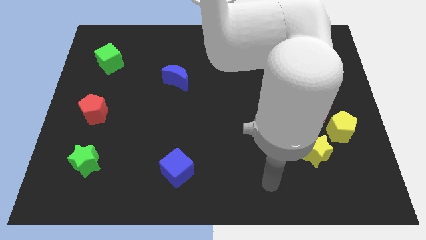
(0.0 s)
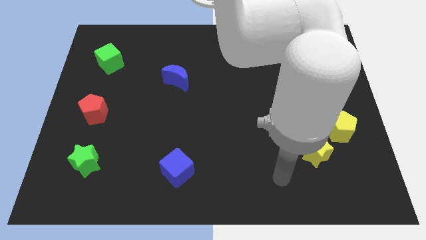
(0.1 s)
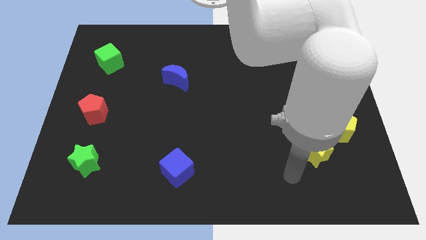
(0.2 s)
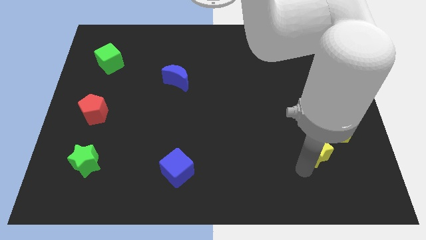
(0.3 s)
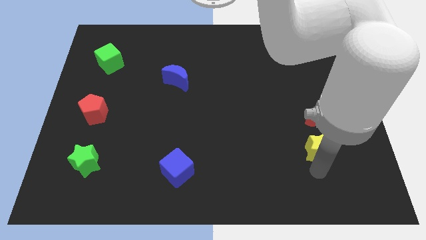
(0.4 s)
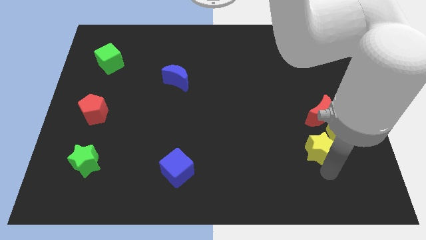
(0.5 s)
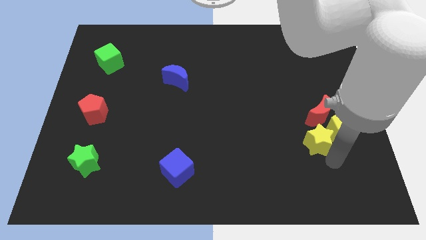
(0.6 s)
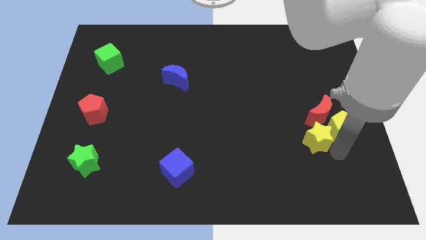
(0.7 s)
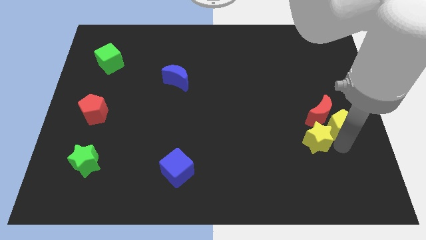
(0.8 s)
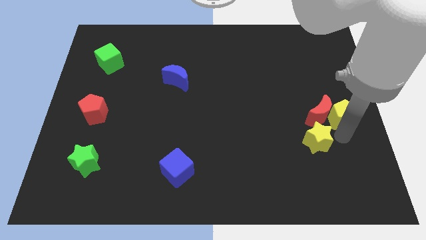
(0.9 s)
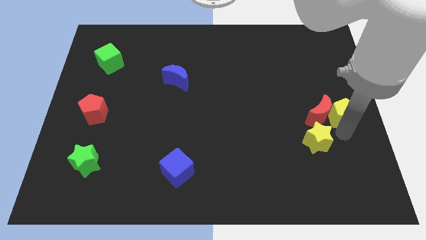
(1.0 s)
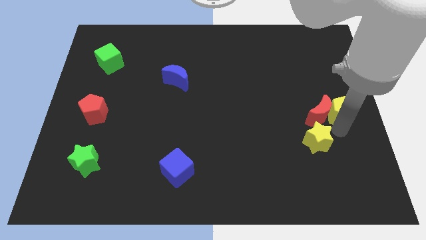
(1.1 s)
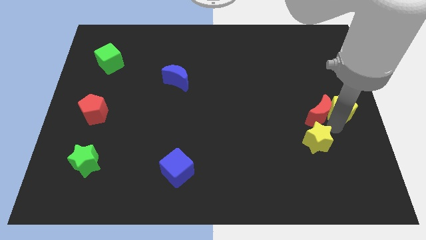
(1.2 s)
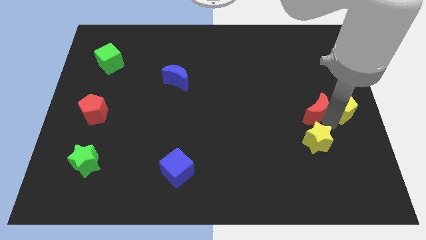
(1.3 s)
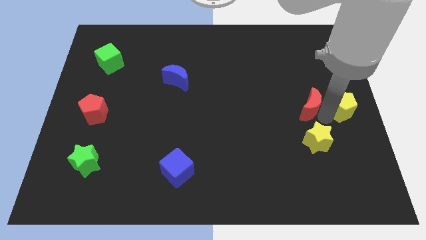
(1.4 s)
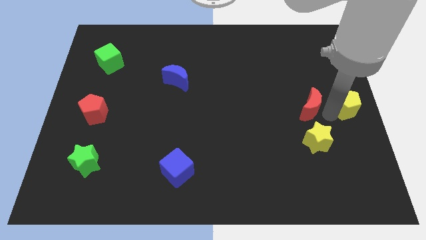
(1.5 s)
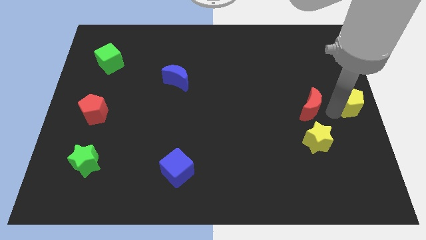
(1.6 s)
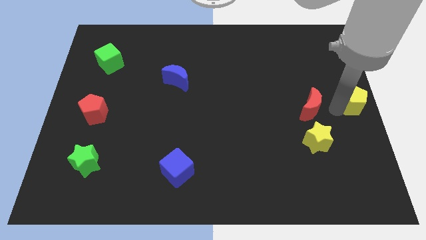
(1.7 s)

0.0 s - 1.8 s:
move the red moon away from the yellow pentagon

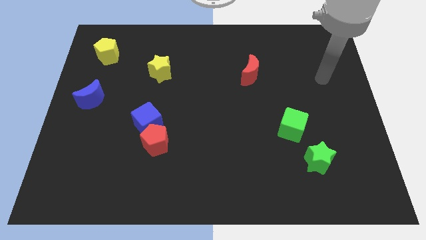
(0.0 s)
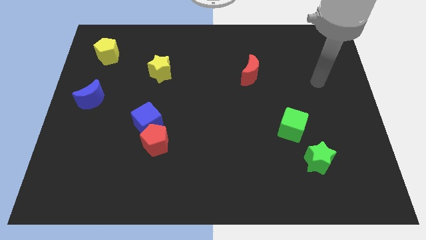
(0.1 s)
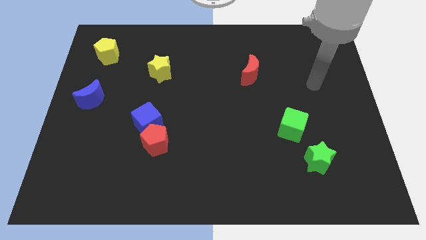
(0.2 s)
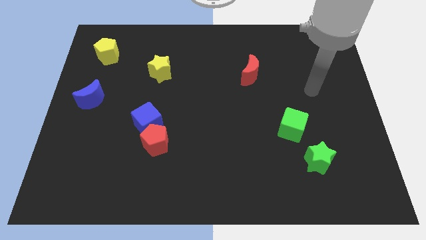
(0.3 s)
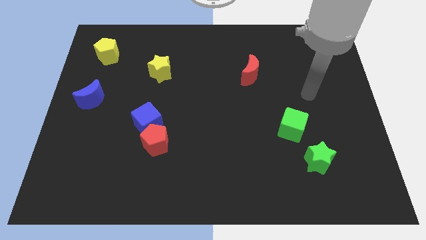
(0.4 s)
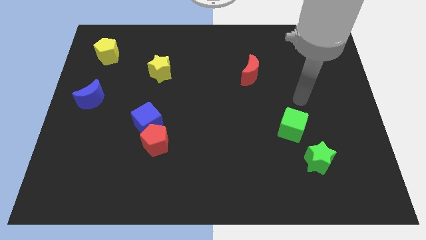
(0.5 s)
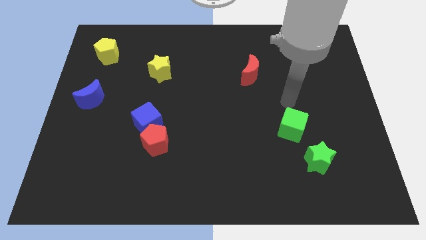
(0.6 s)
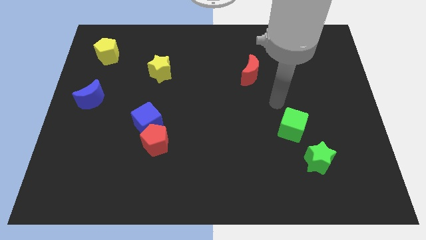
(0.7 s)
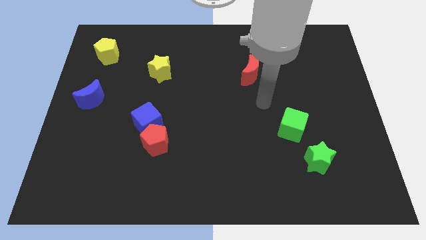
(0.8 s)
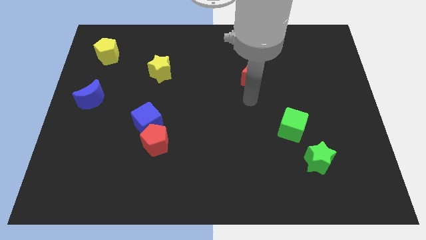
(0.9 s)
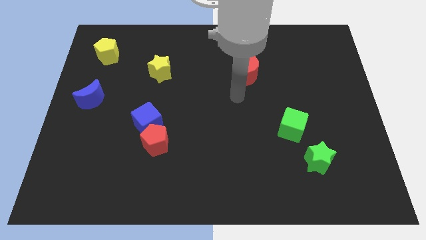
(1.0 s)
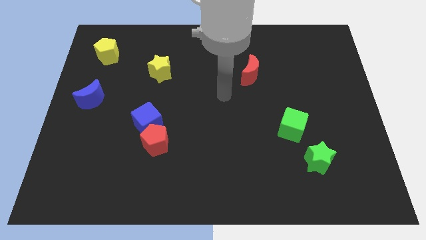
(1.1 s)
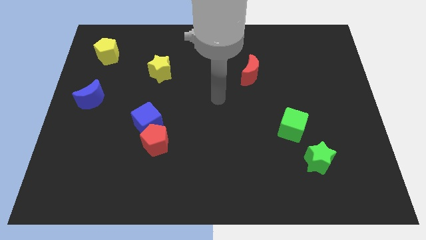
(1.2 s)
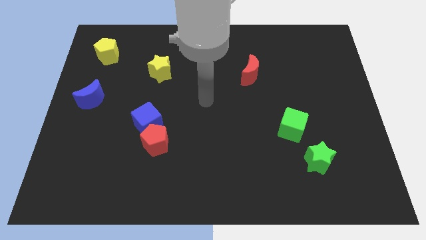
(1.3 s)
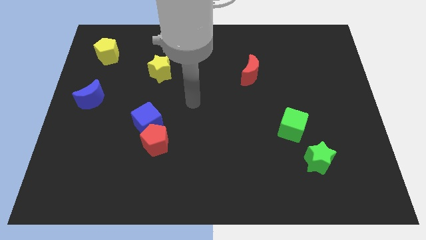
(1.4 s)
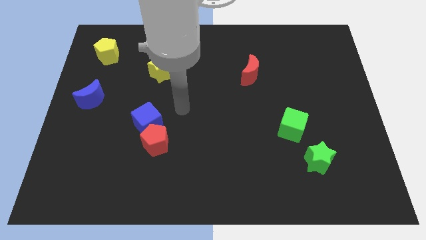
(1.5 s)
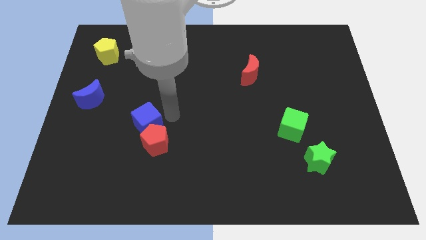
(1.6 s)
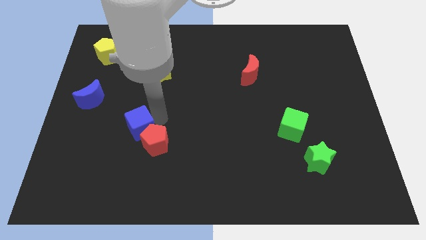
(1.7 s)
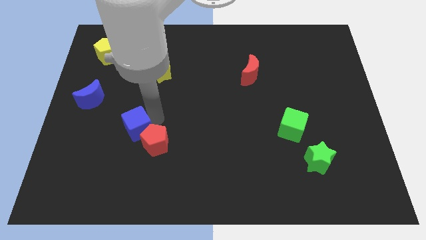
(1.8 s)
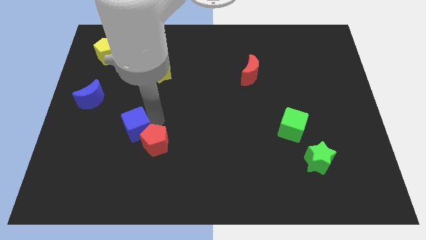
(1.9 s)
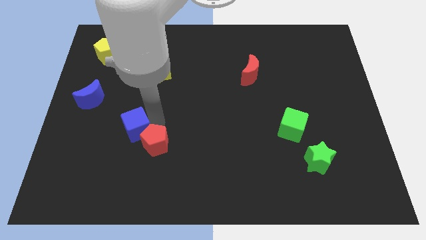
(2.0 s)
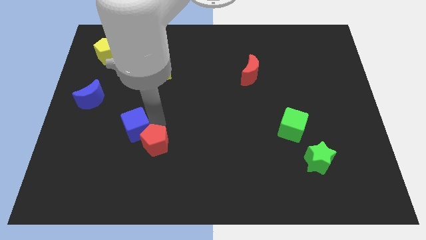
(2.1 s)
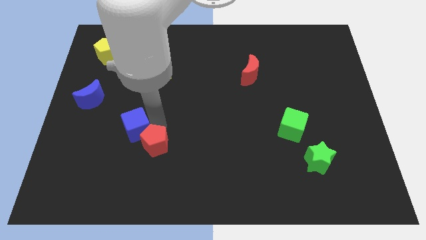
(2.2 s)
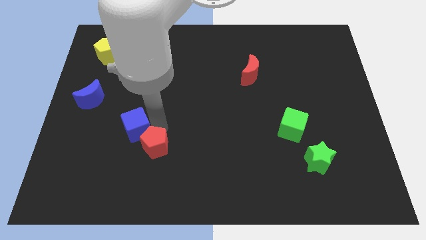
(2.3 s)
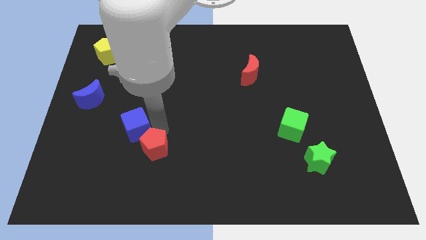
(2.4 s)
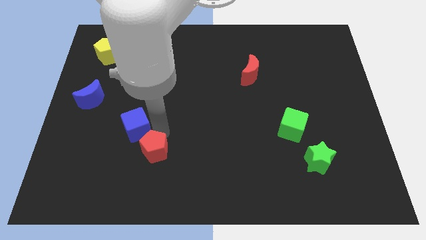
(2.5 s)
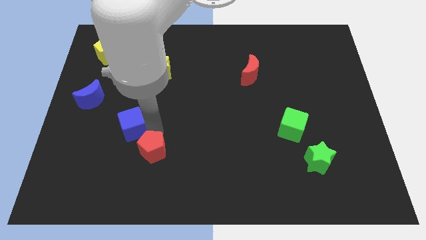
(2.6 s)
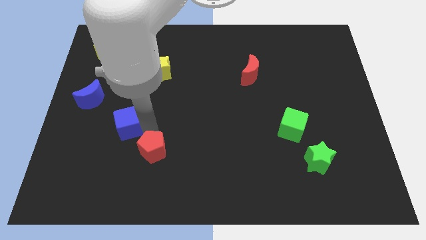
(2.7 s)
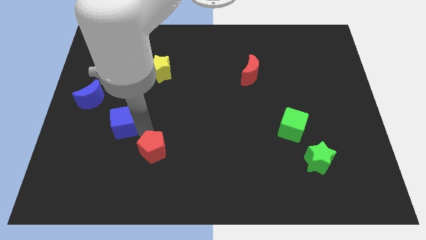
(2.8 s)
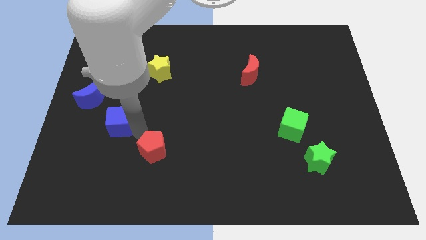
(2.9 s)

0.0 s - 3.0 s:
separate the red pentagon from the blue cube

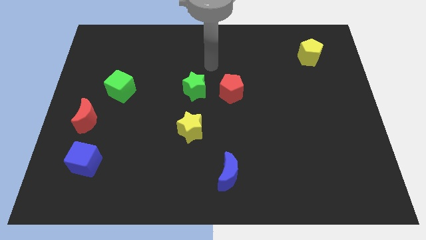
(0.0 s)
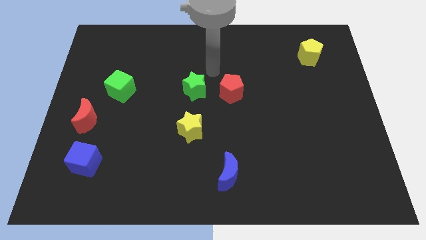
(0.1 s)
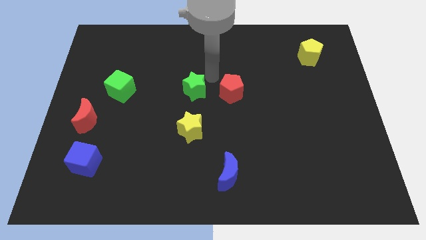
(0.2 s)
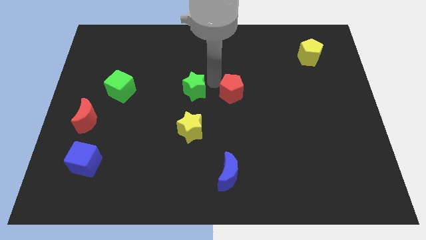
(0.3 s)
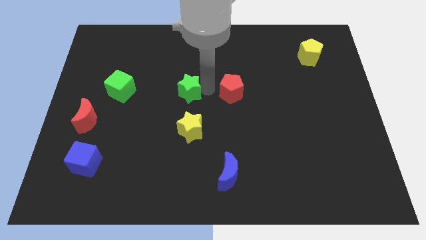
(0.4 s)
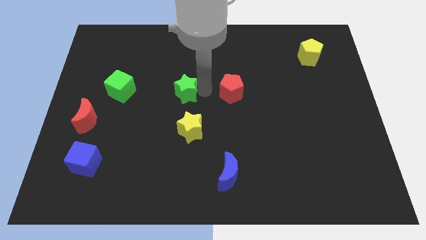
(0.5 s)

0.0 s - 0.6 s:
pull the red pentagon apart from the green star

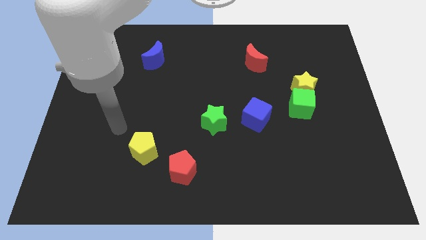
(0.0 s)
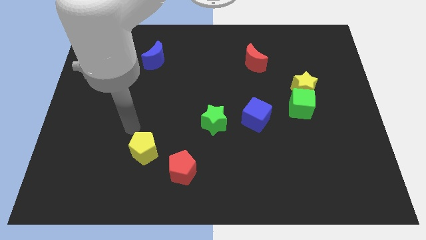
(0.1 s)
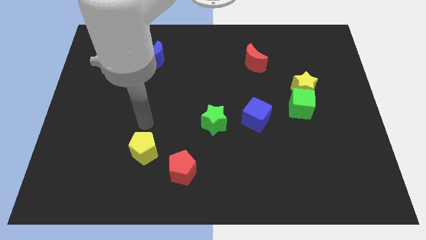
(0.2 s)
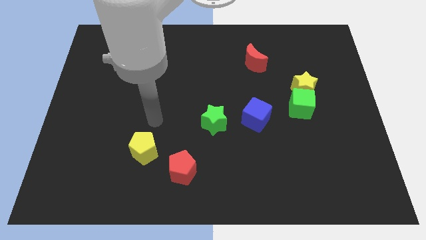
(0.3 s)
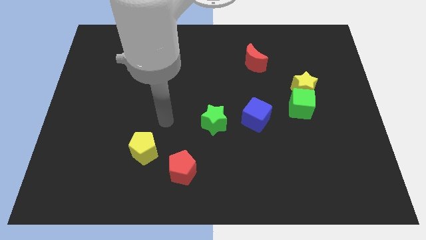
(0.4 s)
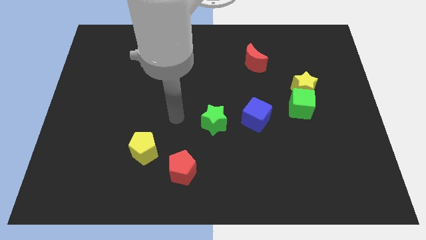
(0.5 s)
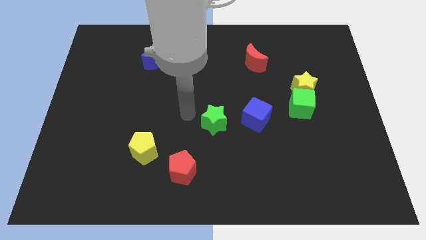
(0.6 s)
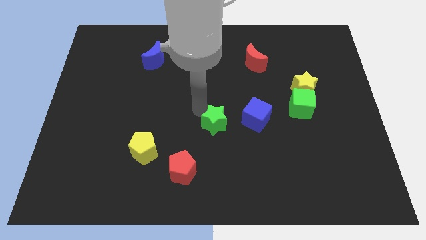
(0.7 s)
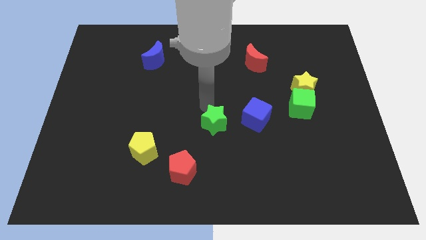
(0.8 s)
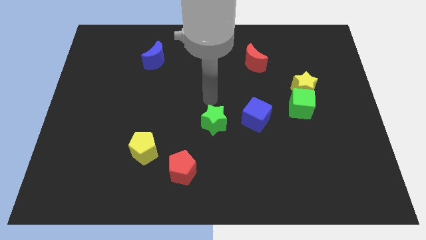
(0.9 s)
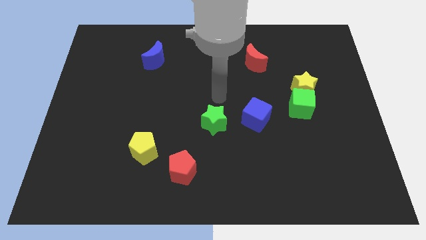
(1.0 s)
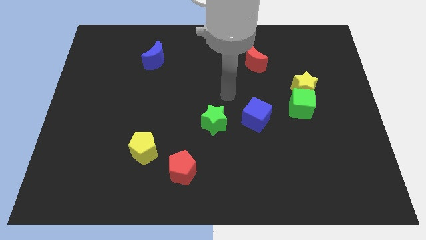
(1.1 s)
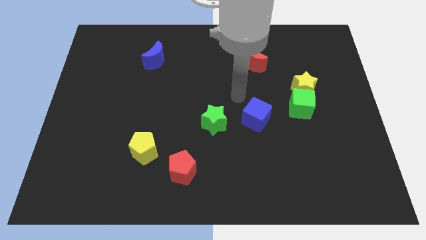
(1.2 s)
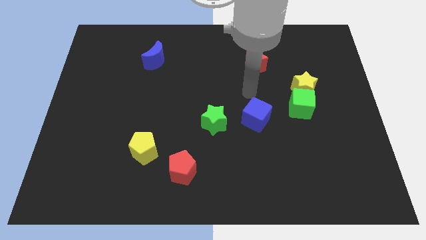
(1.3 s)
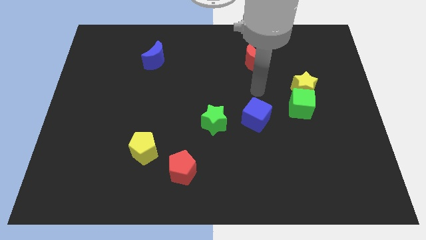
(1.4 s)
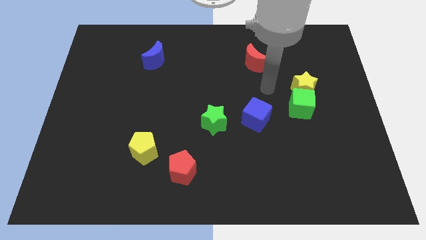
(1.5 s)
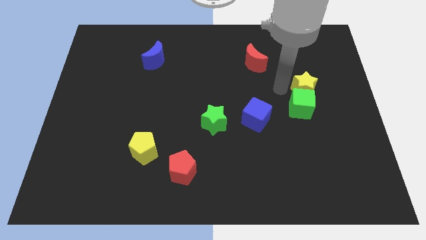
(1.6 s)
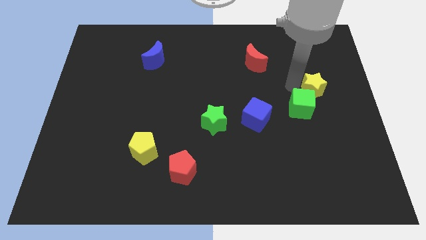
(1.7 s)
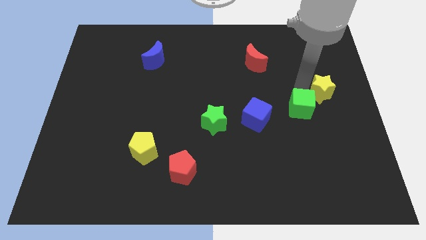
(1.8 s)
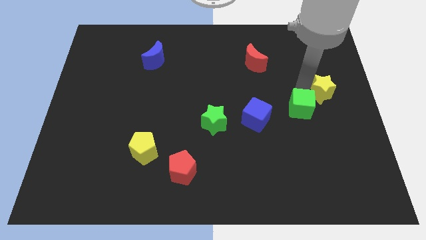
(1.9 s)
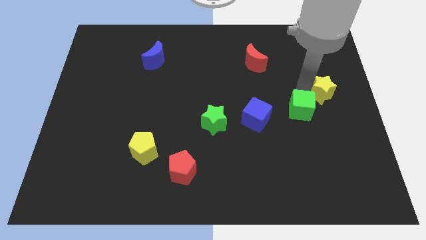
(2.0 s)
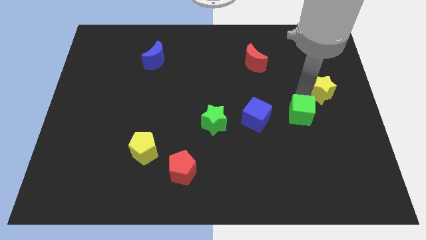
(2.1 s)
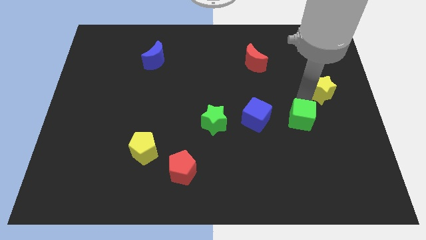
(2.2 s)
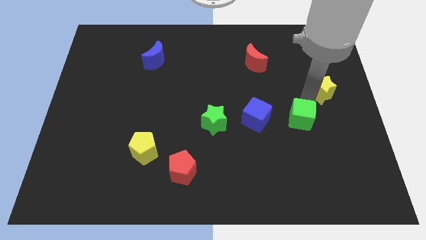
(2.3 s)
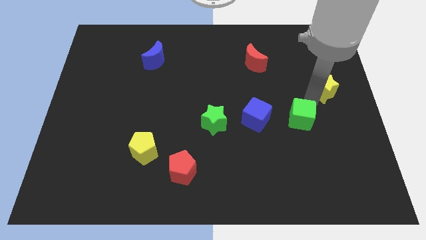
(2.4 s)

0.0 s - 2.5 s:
pull the green cube apart from the yellow star

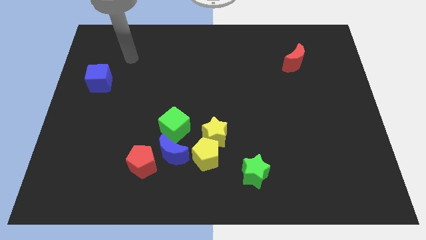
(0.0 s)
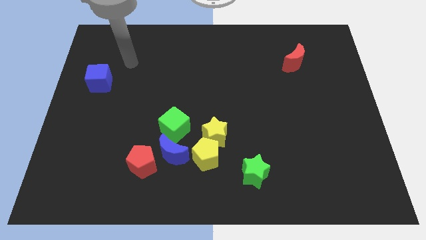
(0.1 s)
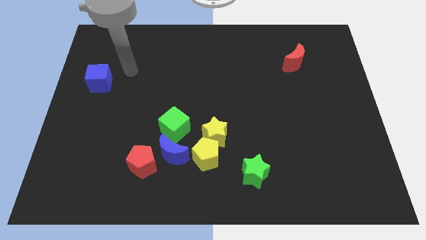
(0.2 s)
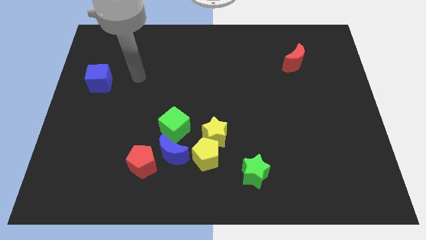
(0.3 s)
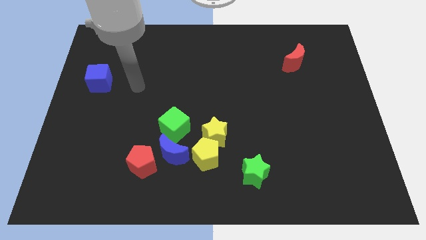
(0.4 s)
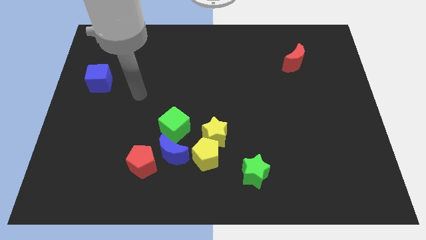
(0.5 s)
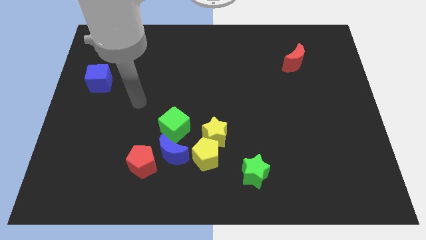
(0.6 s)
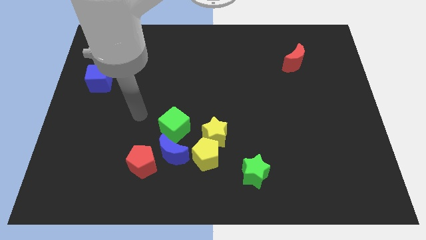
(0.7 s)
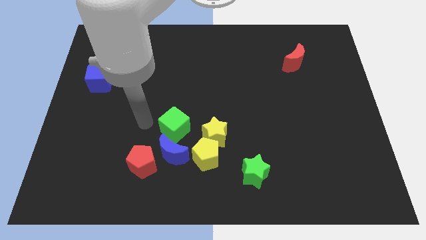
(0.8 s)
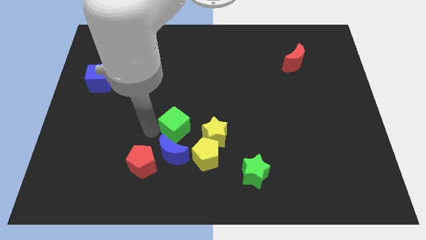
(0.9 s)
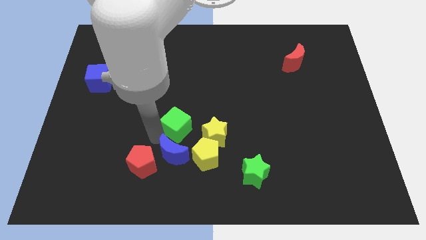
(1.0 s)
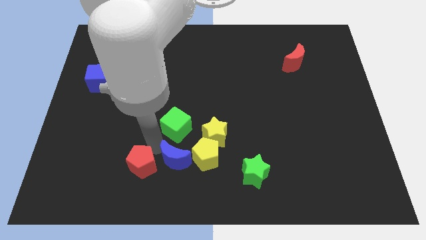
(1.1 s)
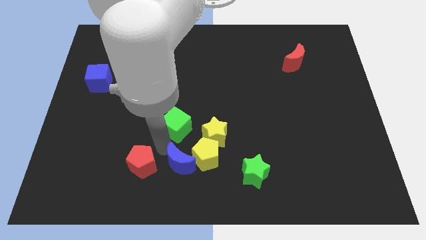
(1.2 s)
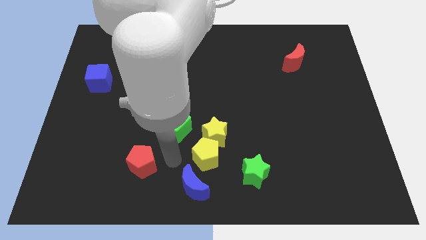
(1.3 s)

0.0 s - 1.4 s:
move the red pentagon away from the blue moon

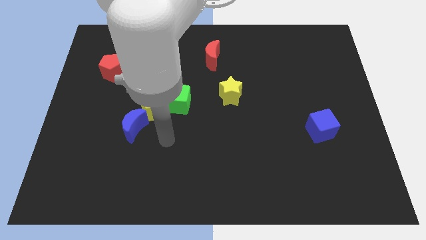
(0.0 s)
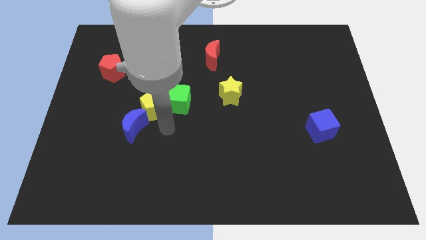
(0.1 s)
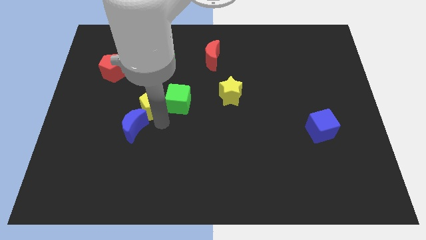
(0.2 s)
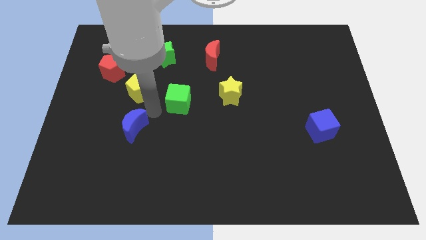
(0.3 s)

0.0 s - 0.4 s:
separate the green cube from the yellow pentagon
